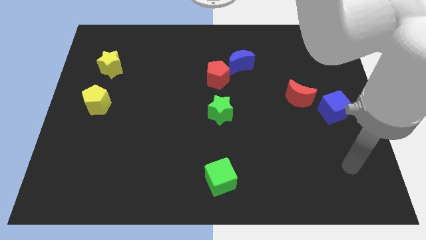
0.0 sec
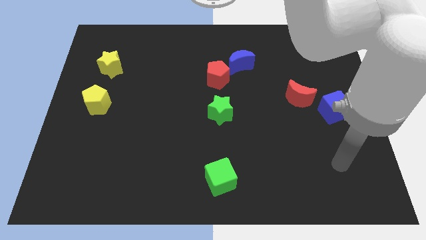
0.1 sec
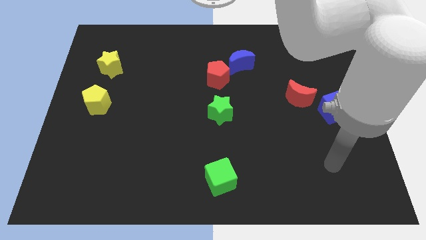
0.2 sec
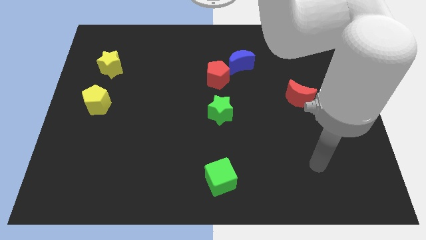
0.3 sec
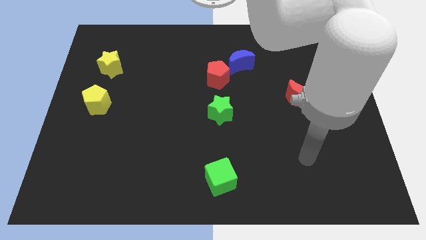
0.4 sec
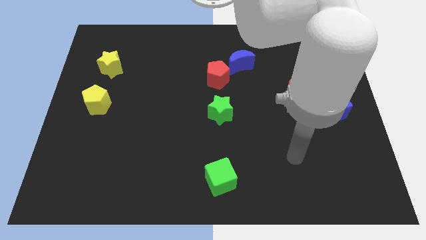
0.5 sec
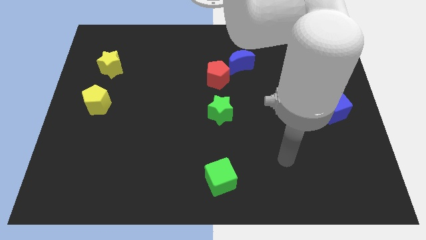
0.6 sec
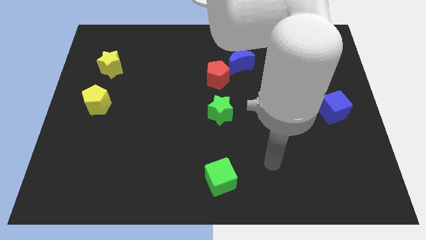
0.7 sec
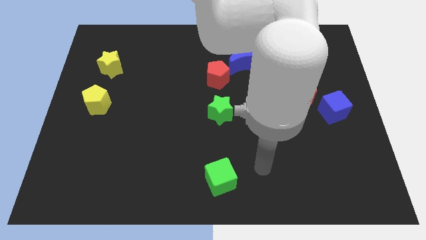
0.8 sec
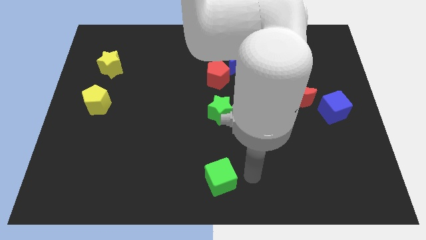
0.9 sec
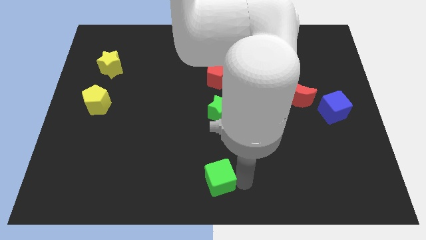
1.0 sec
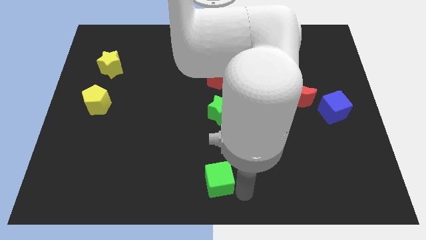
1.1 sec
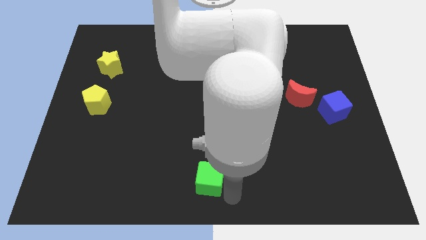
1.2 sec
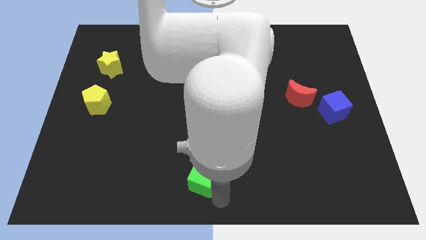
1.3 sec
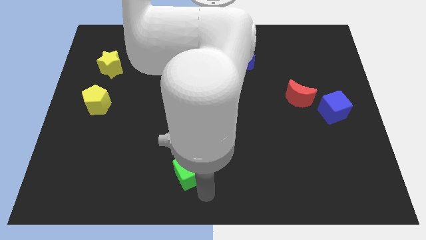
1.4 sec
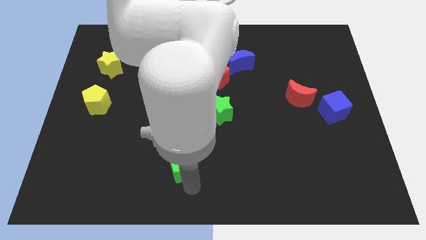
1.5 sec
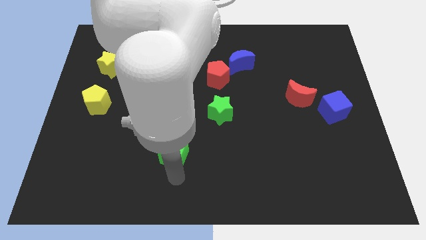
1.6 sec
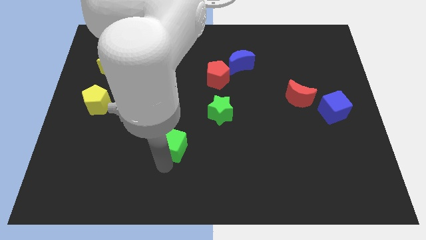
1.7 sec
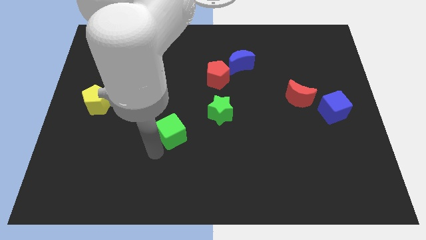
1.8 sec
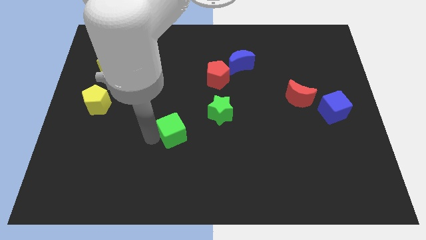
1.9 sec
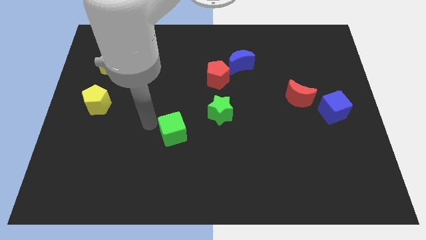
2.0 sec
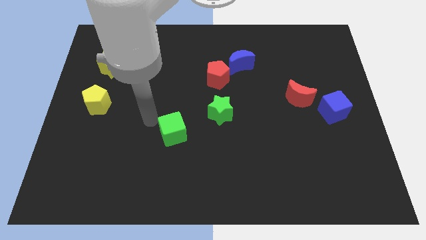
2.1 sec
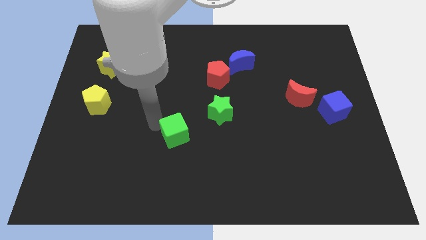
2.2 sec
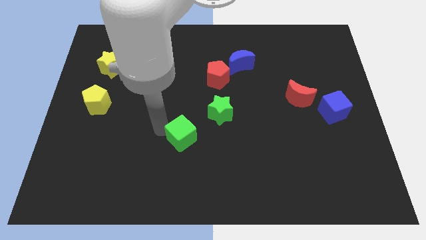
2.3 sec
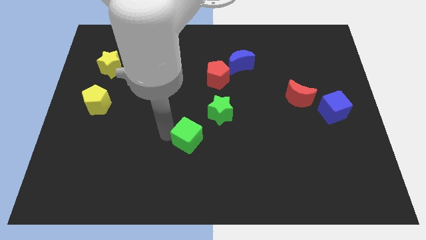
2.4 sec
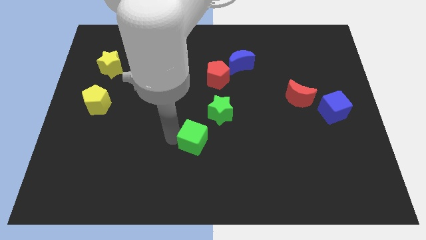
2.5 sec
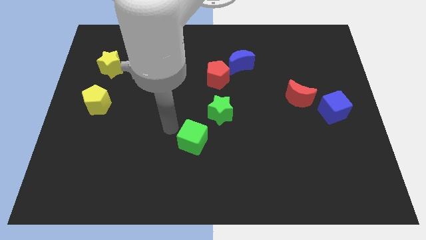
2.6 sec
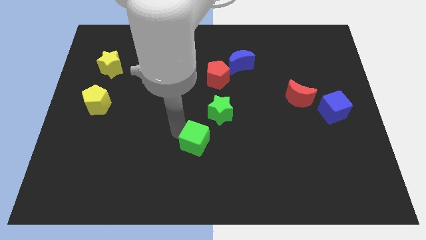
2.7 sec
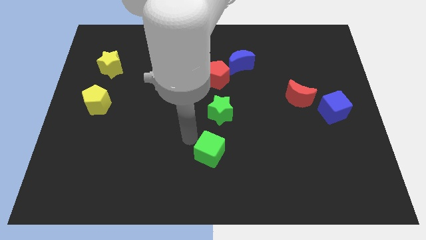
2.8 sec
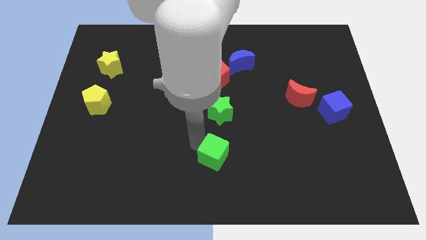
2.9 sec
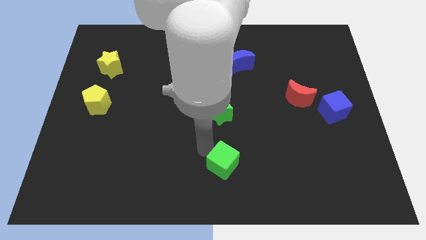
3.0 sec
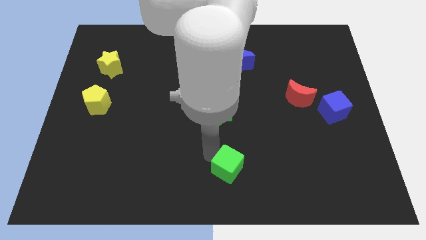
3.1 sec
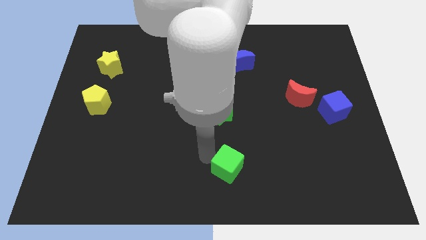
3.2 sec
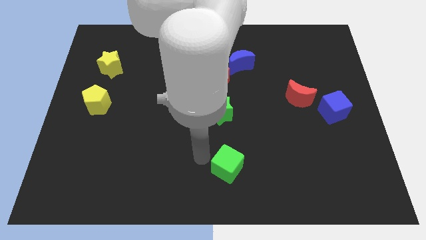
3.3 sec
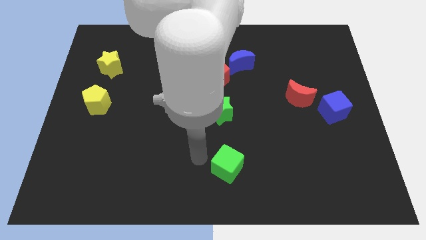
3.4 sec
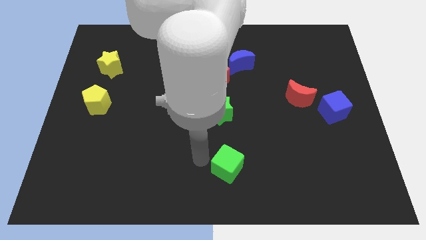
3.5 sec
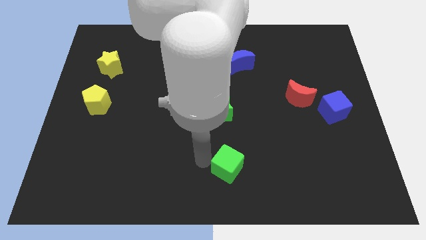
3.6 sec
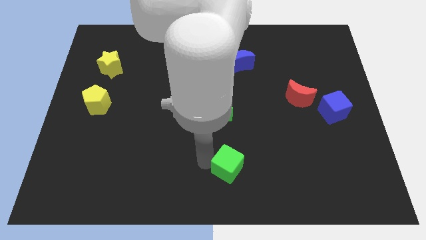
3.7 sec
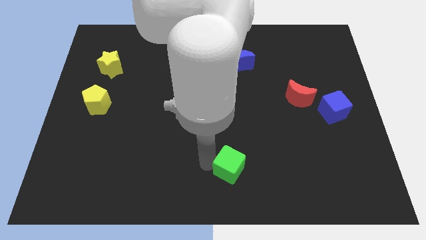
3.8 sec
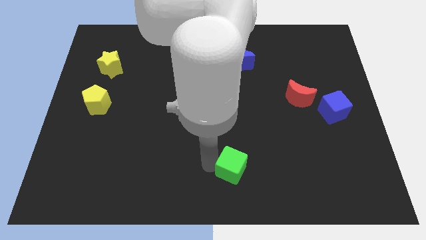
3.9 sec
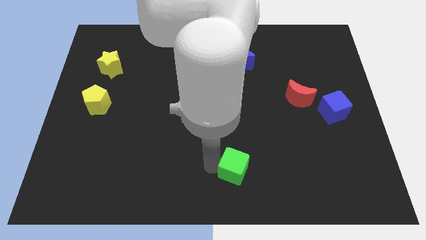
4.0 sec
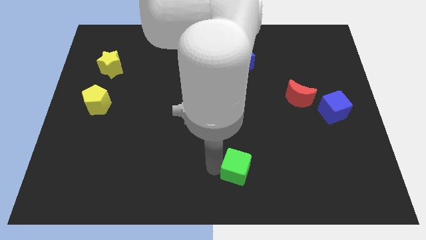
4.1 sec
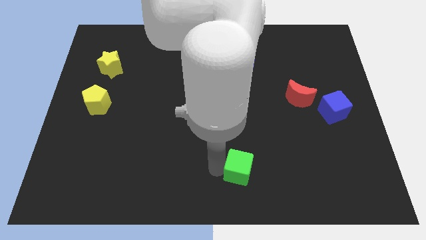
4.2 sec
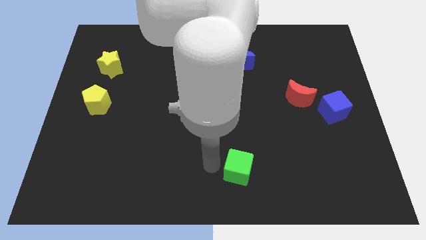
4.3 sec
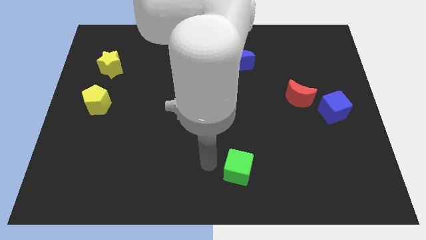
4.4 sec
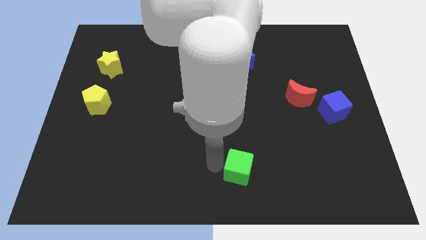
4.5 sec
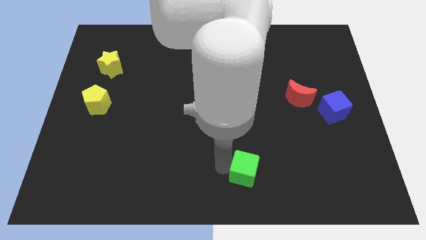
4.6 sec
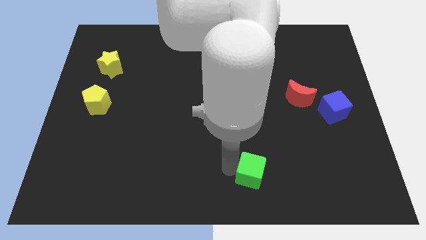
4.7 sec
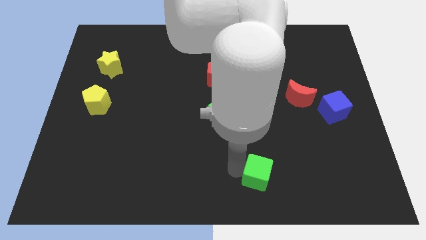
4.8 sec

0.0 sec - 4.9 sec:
push the green cube somewhat to the right

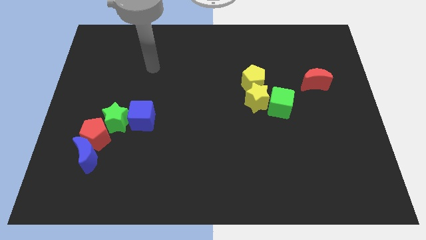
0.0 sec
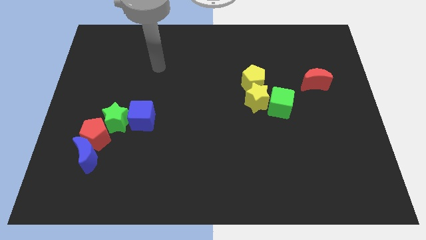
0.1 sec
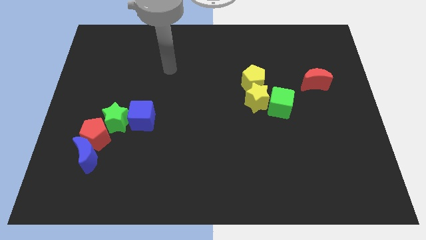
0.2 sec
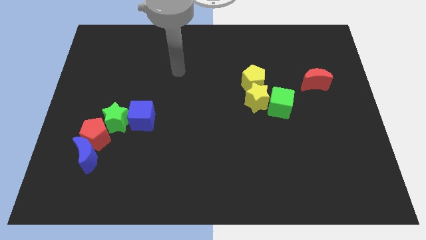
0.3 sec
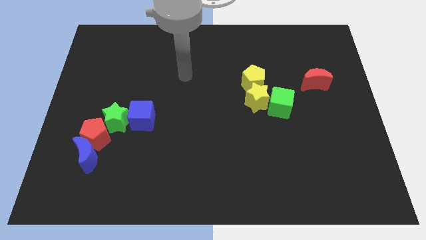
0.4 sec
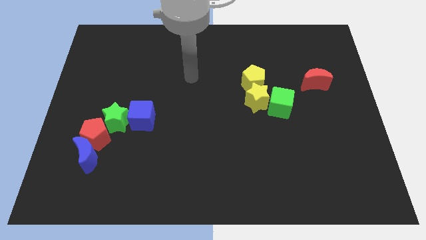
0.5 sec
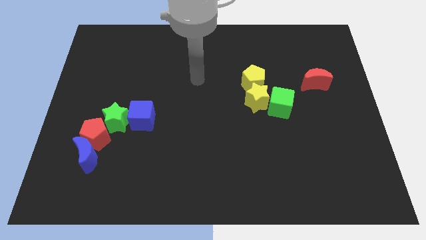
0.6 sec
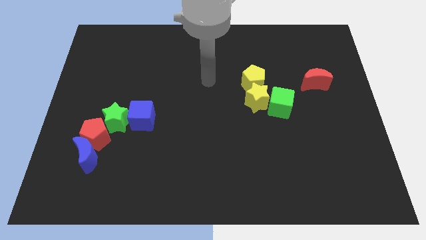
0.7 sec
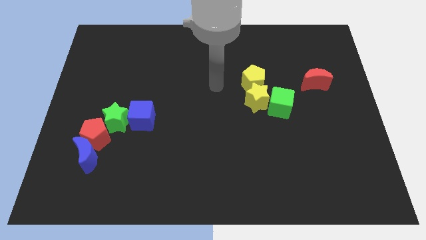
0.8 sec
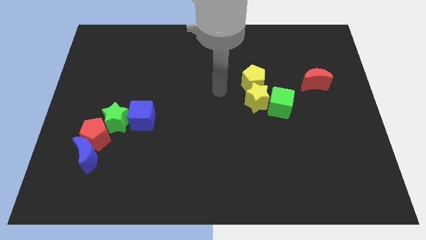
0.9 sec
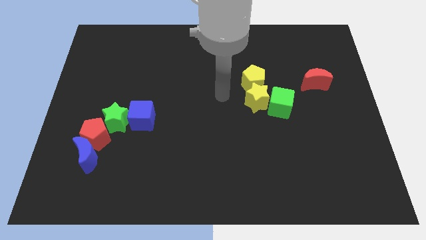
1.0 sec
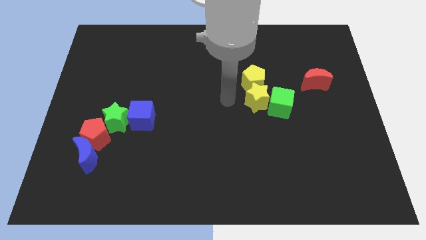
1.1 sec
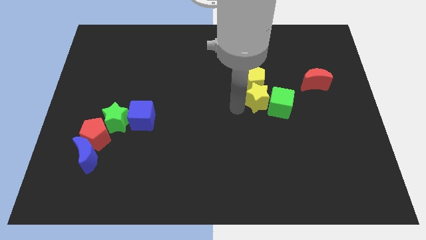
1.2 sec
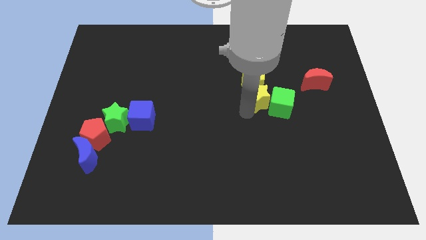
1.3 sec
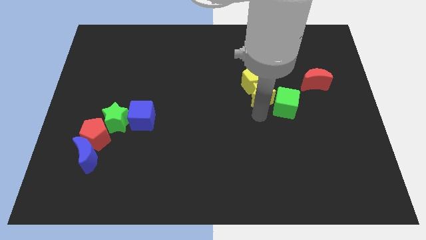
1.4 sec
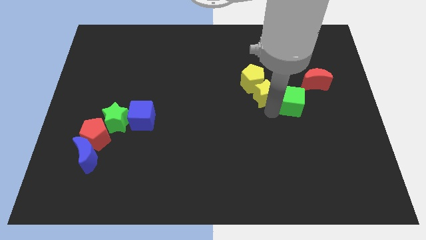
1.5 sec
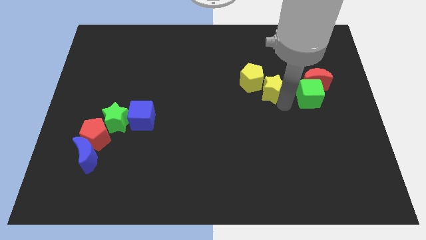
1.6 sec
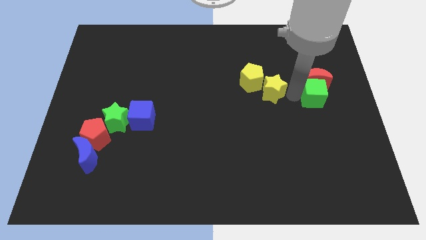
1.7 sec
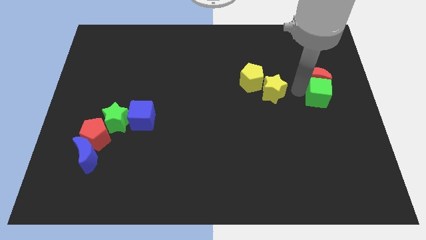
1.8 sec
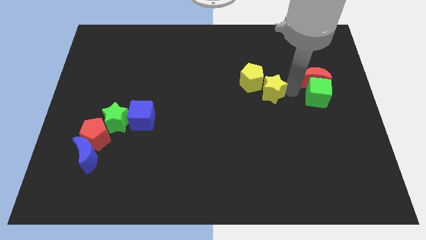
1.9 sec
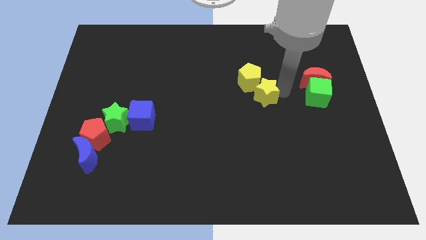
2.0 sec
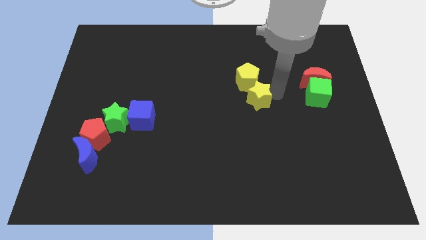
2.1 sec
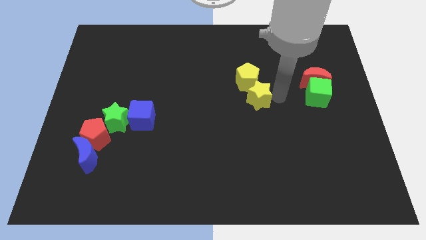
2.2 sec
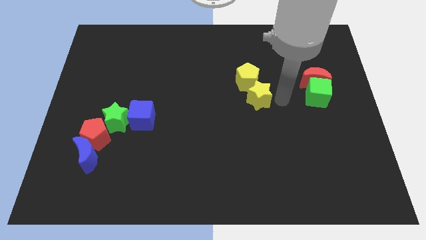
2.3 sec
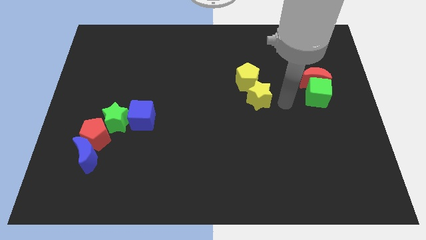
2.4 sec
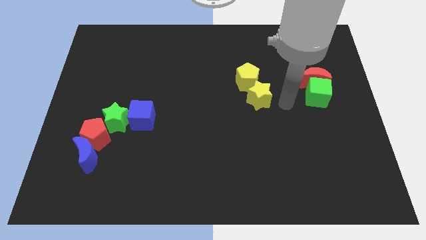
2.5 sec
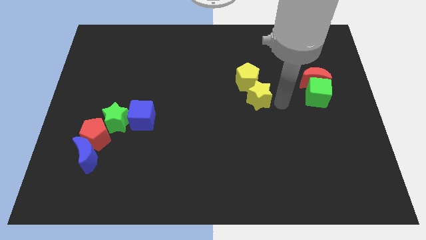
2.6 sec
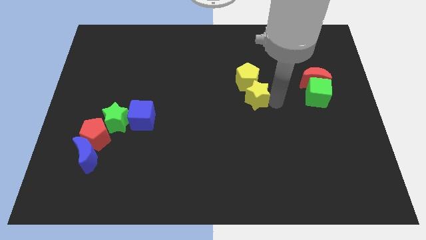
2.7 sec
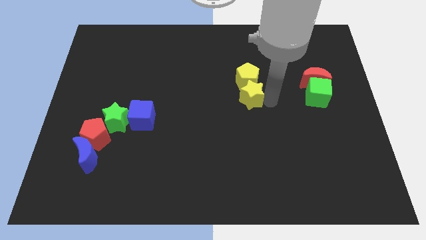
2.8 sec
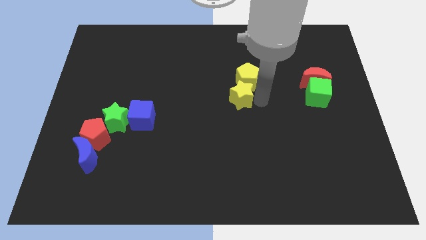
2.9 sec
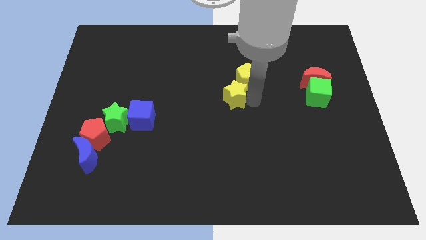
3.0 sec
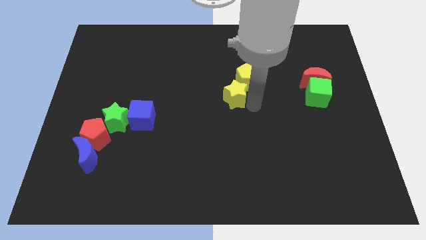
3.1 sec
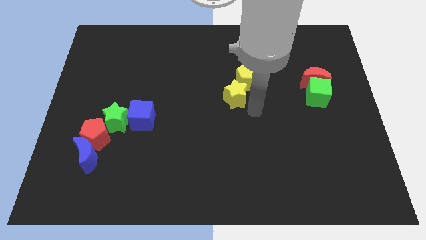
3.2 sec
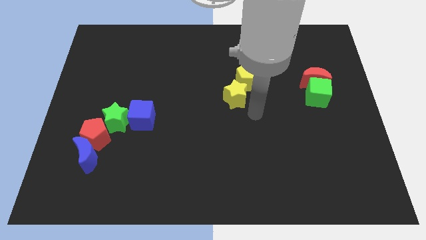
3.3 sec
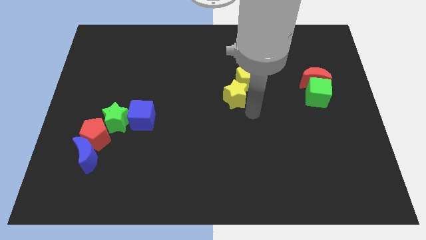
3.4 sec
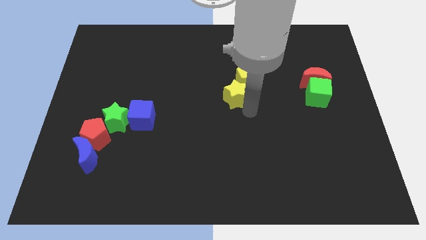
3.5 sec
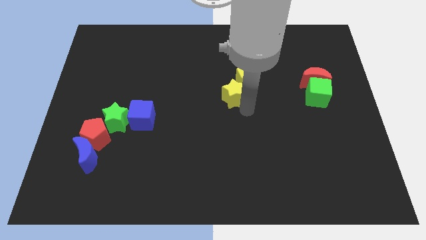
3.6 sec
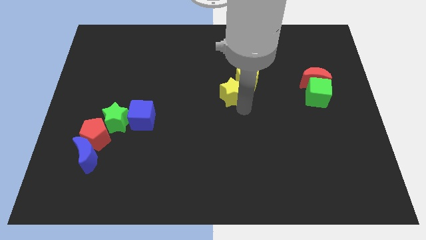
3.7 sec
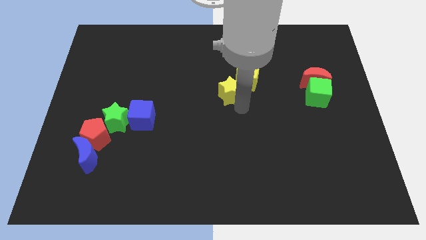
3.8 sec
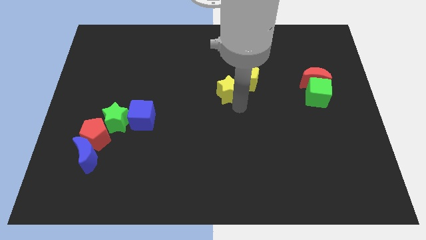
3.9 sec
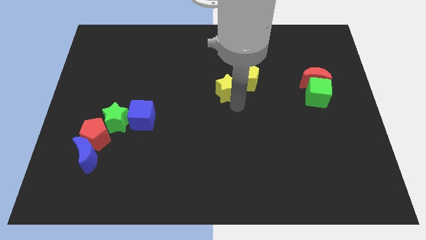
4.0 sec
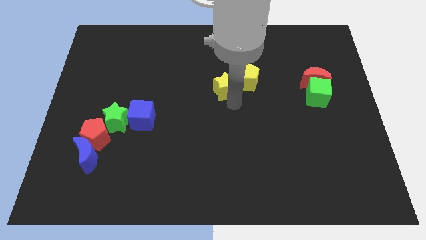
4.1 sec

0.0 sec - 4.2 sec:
push the yellow star a little upwards and left
